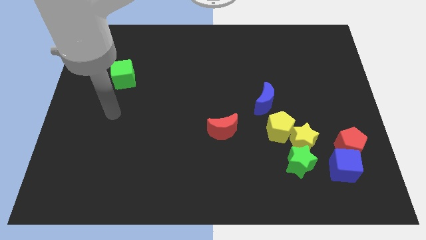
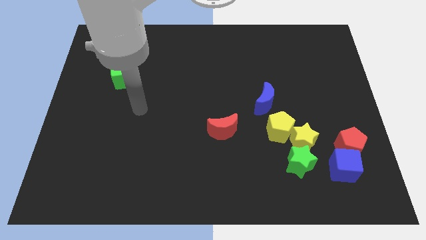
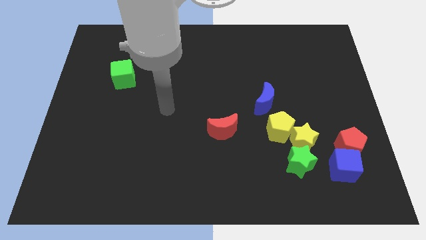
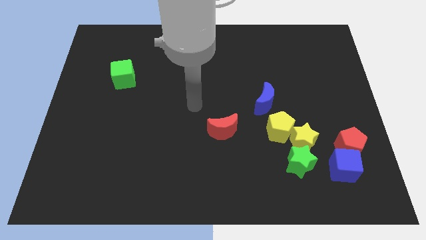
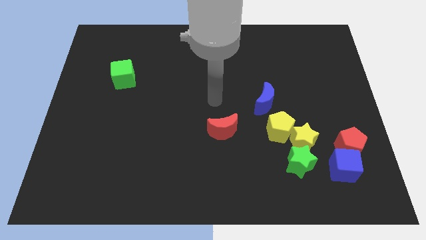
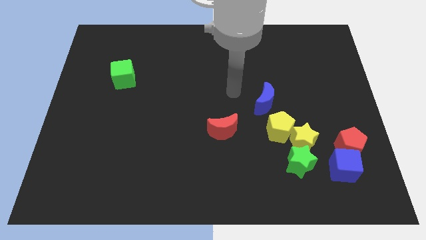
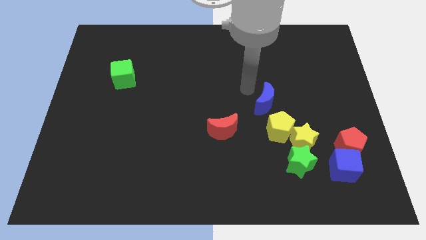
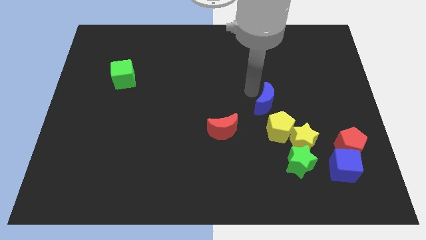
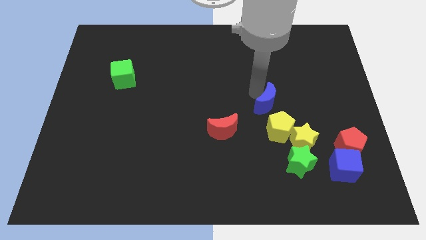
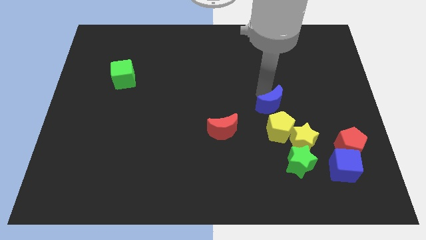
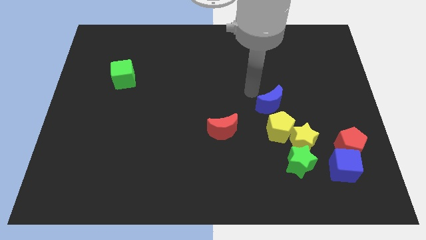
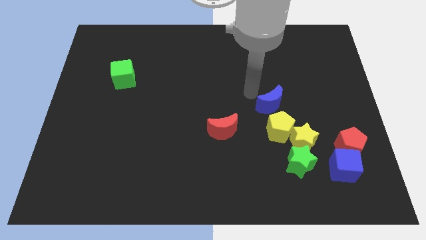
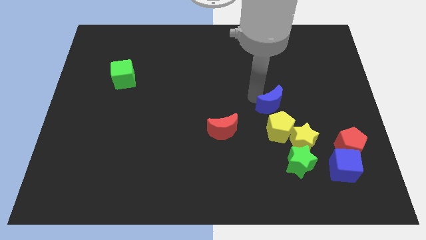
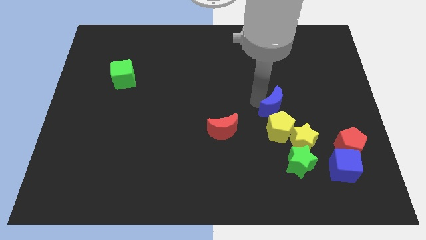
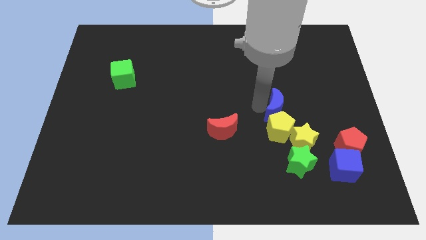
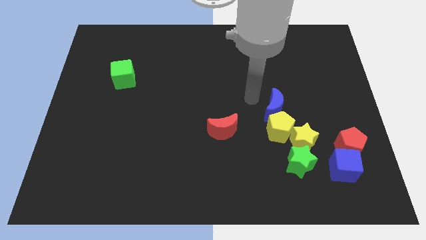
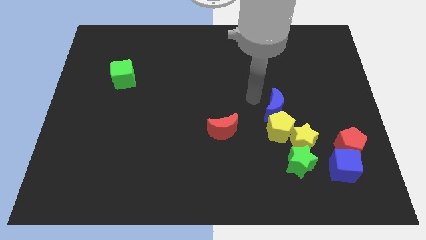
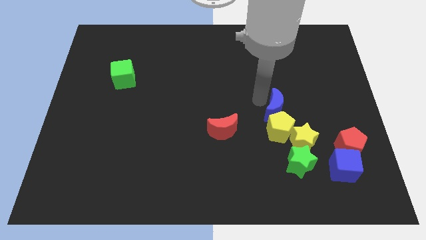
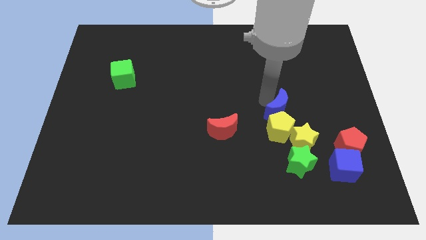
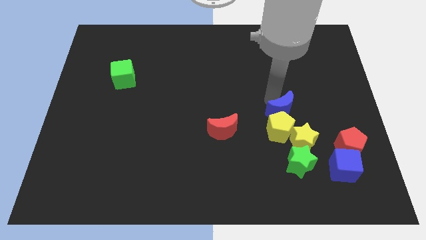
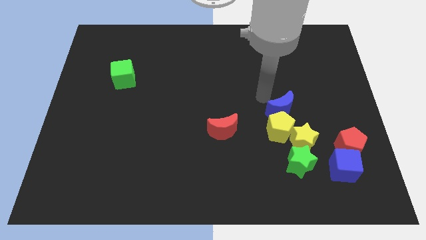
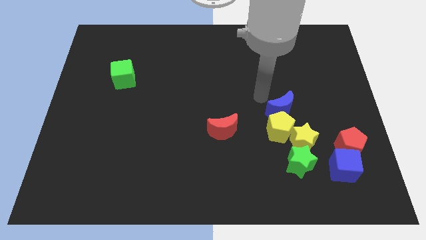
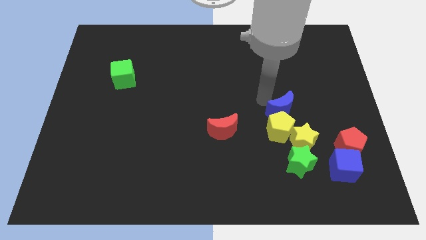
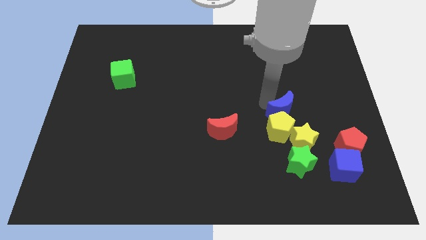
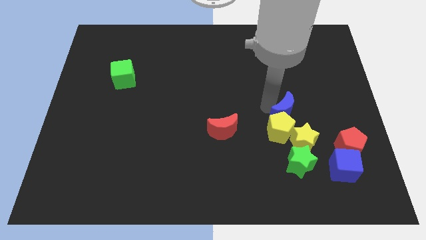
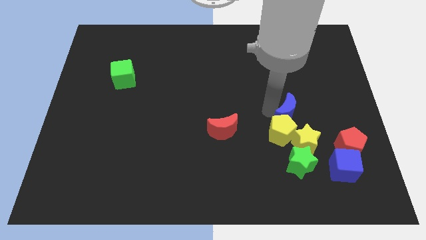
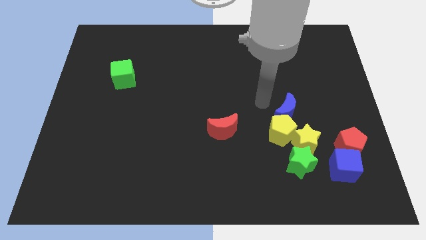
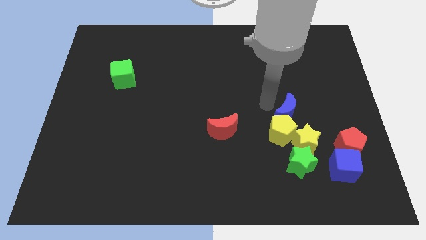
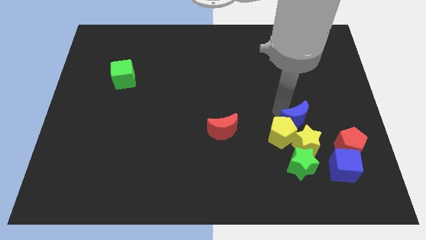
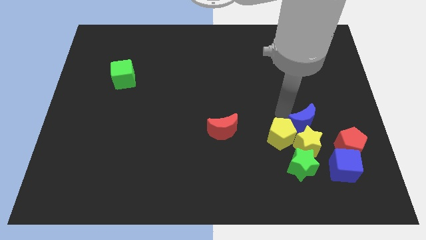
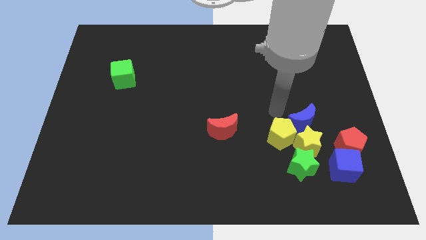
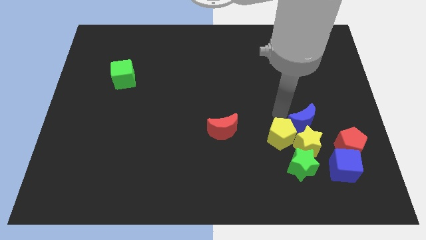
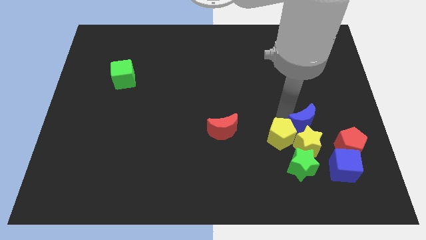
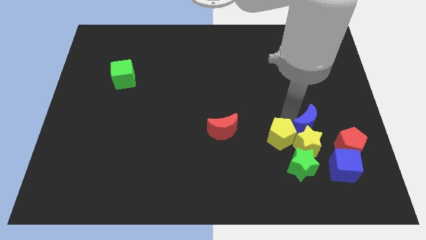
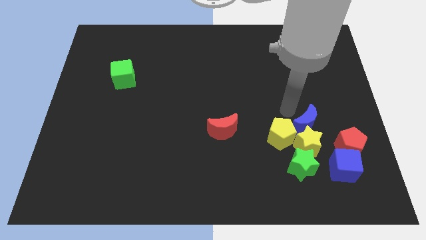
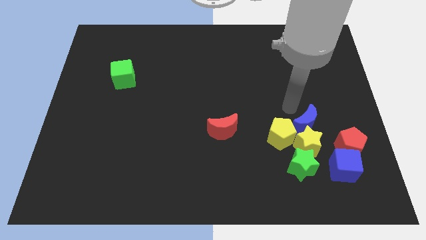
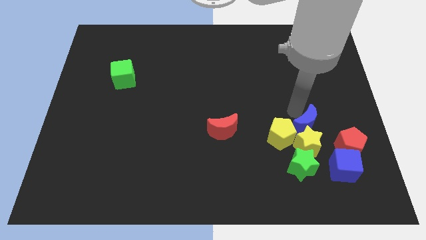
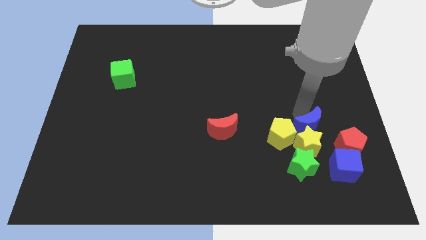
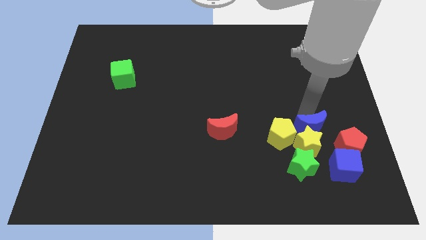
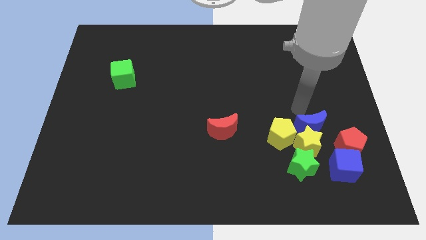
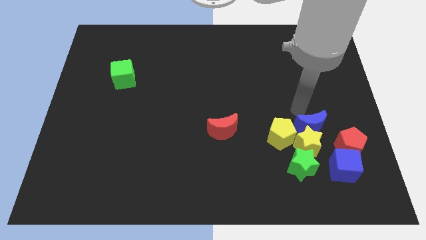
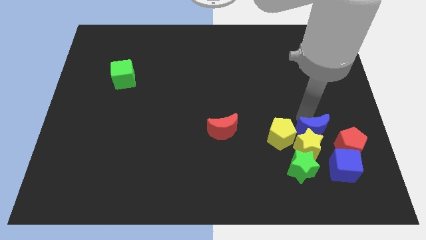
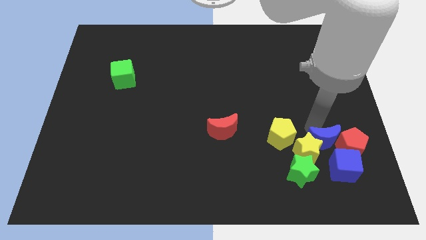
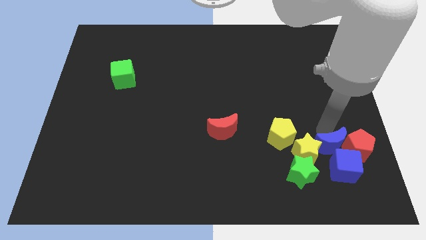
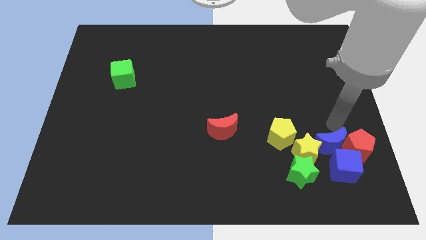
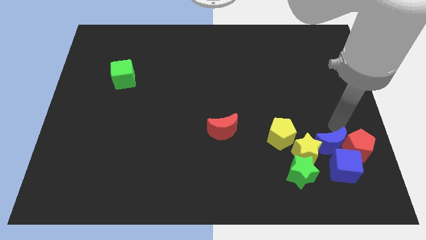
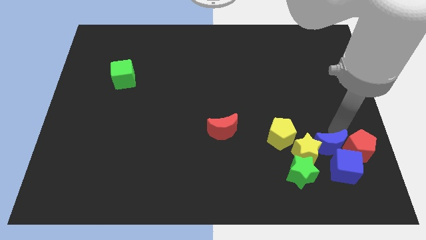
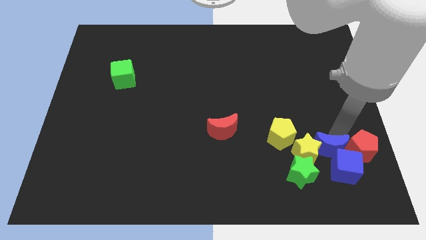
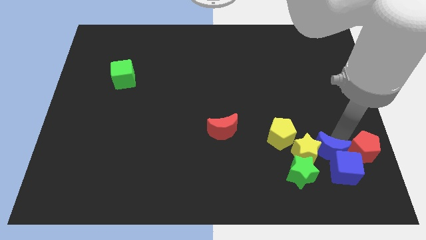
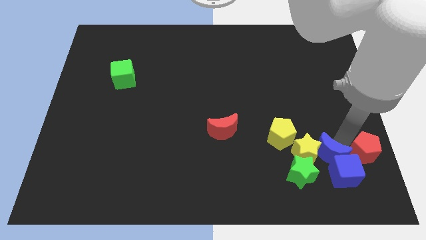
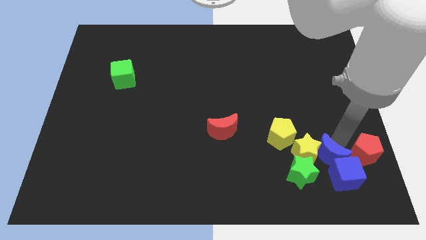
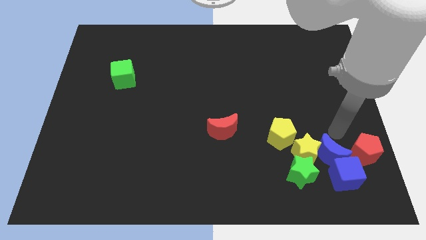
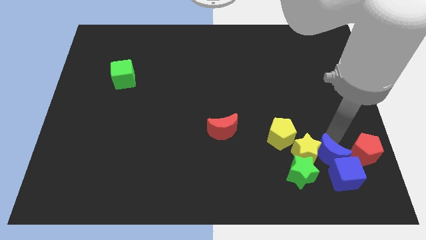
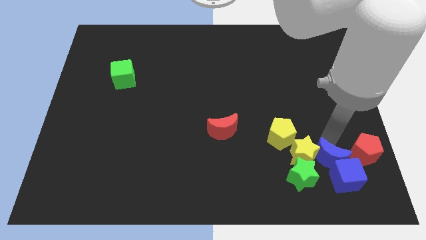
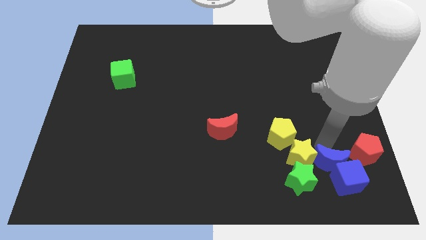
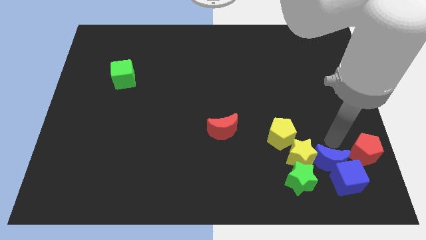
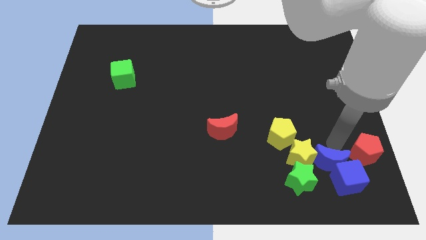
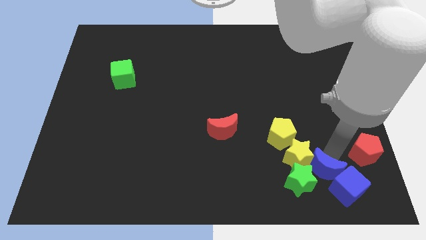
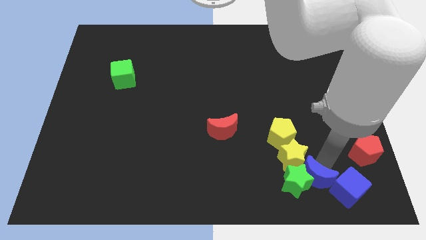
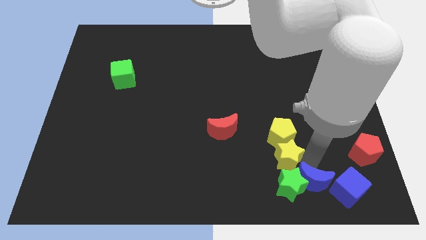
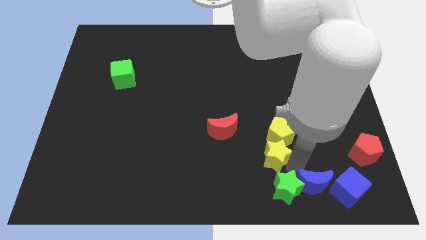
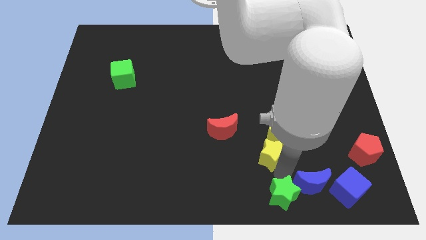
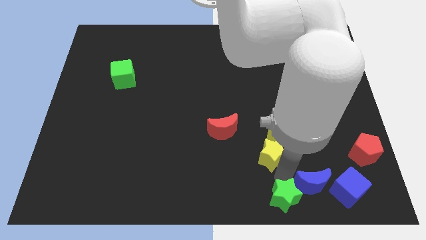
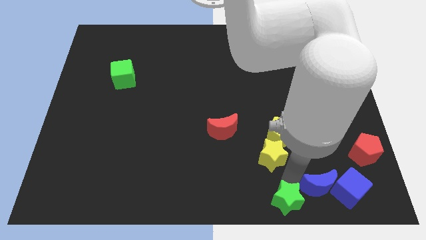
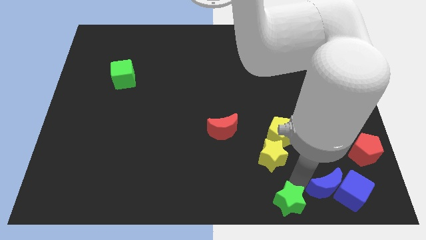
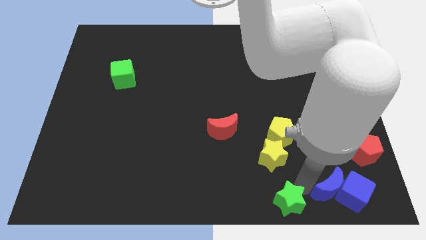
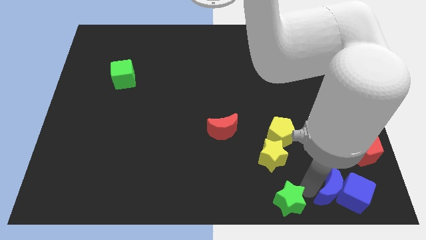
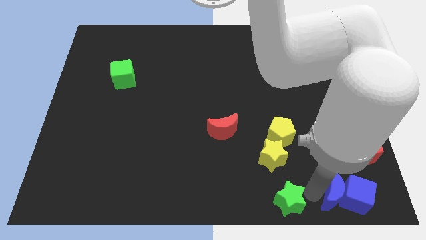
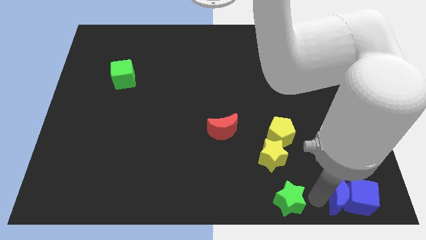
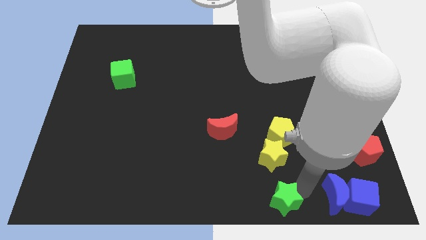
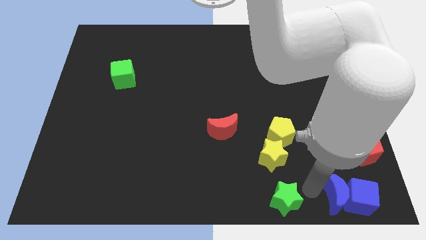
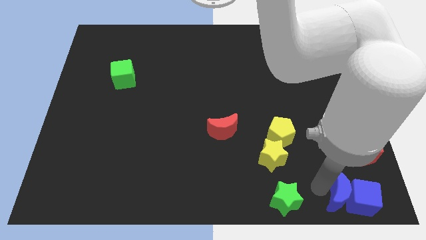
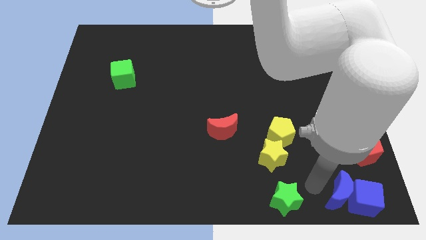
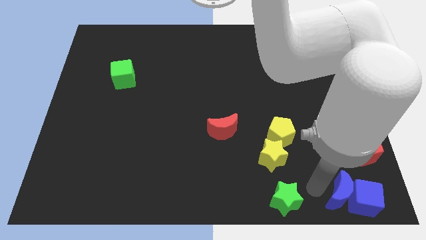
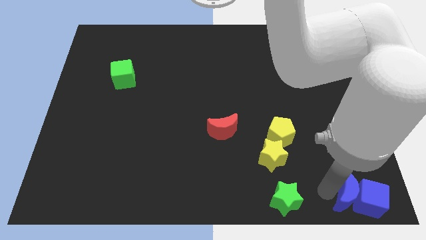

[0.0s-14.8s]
put the blue moon to the bottom right corner
